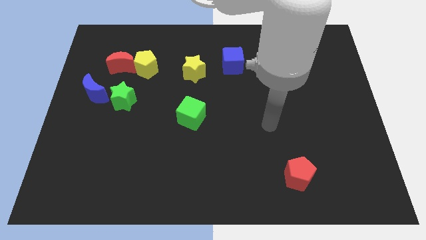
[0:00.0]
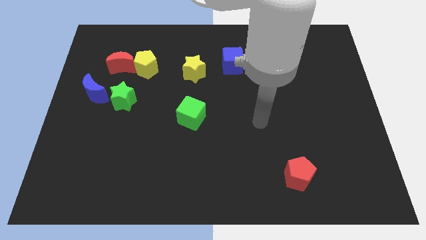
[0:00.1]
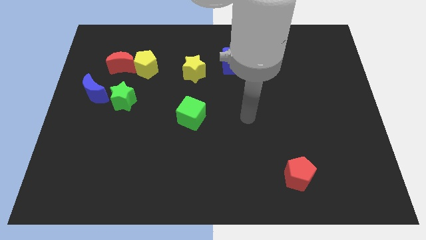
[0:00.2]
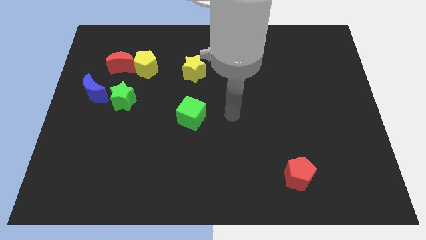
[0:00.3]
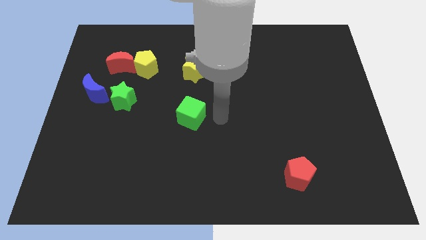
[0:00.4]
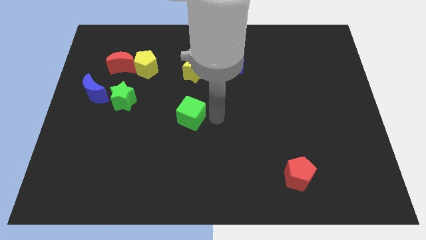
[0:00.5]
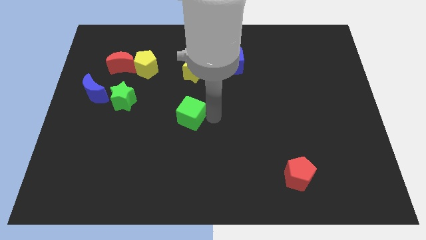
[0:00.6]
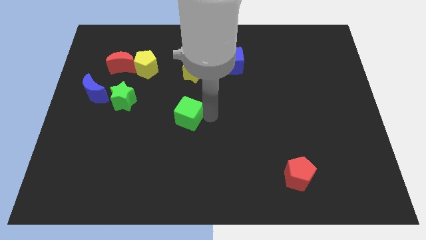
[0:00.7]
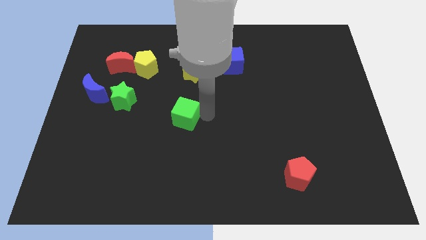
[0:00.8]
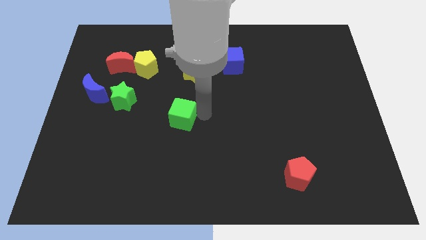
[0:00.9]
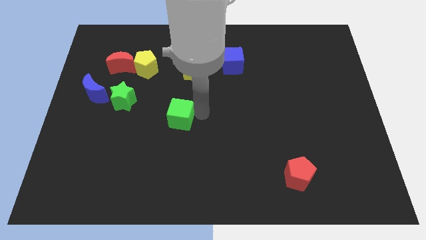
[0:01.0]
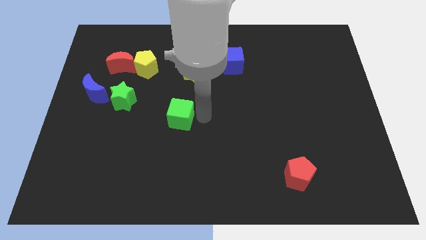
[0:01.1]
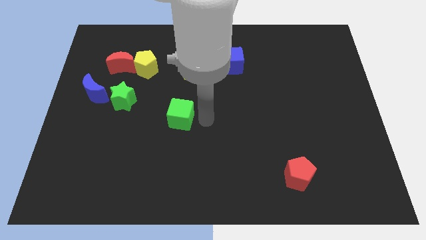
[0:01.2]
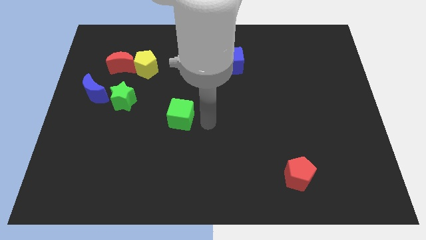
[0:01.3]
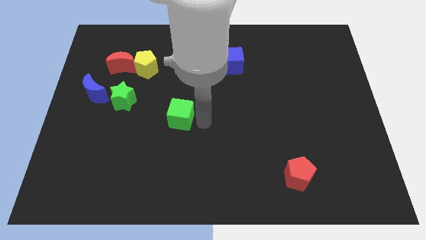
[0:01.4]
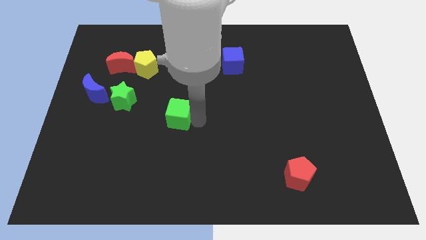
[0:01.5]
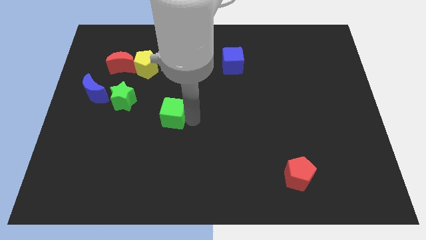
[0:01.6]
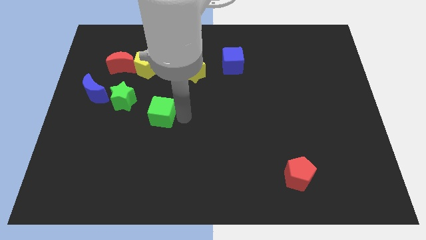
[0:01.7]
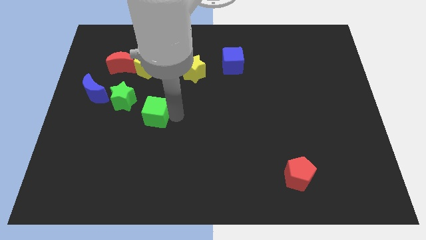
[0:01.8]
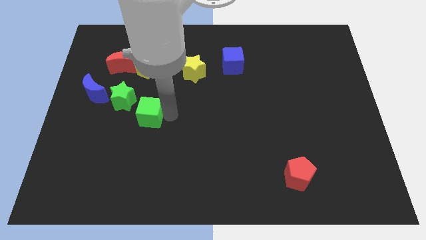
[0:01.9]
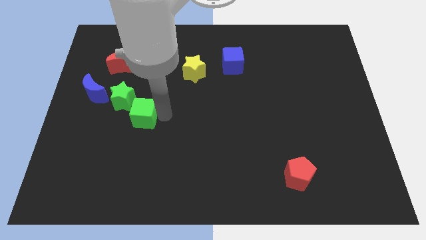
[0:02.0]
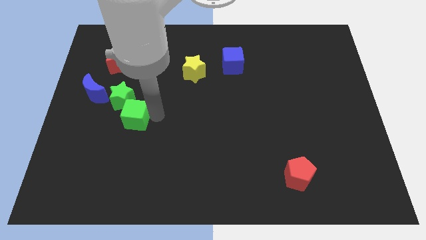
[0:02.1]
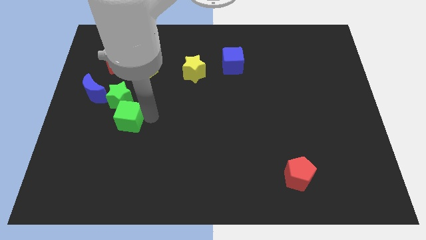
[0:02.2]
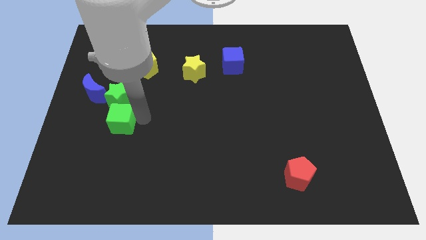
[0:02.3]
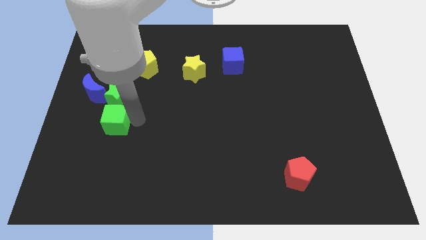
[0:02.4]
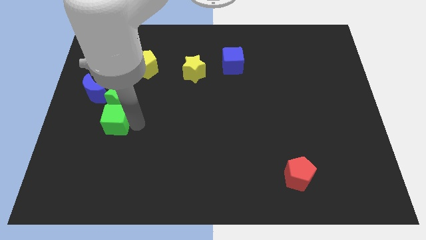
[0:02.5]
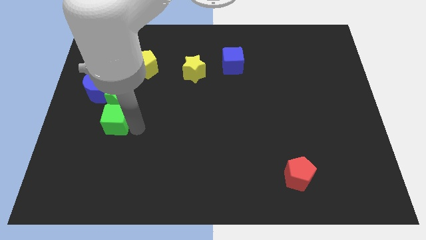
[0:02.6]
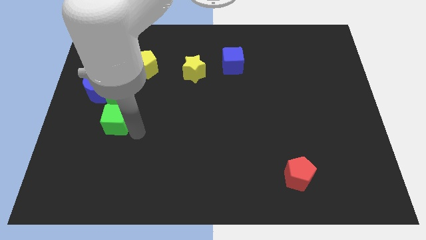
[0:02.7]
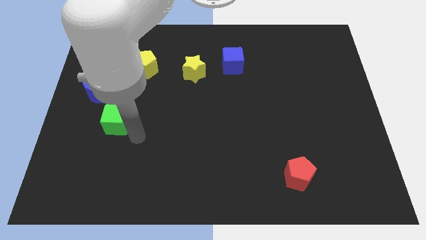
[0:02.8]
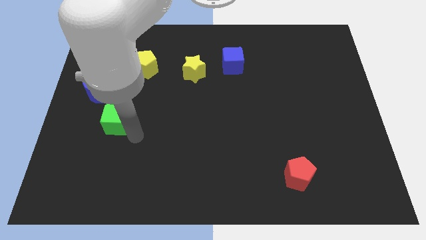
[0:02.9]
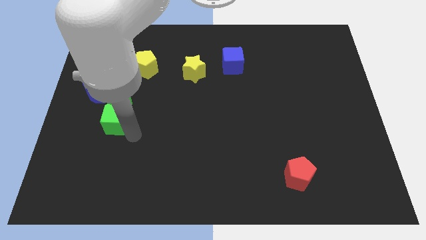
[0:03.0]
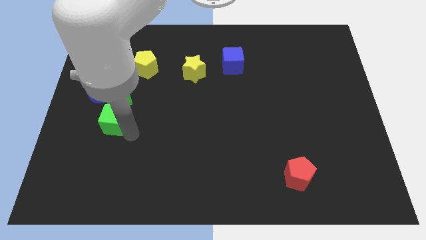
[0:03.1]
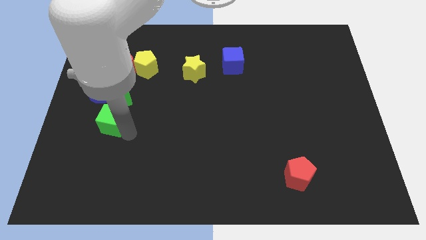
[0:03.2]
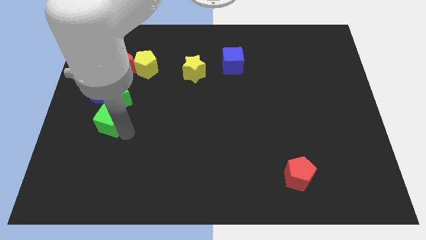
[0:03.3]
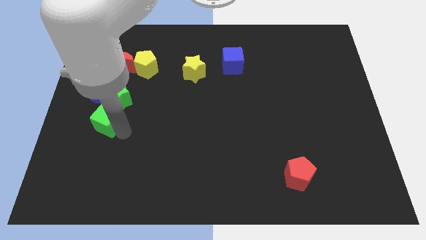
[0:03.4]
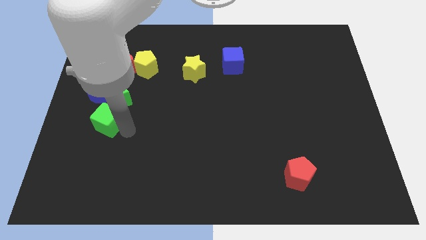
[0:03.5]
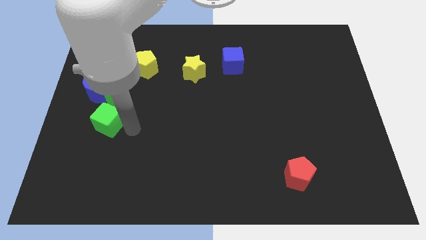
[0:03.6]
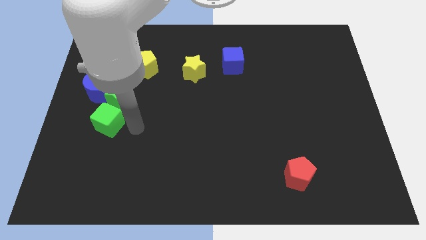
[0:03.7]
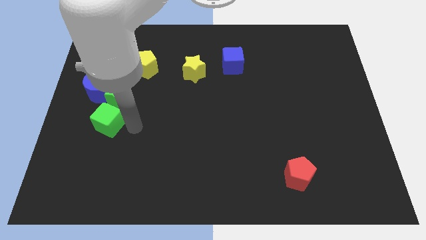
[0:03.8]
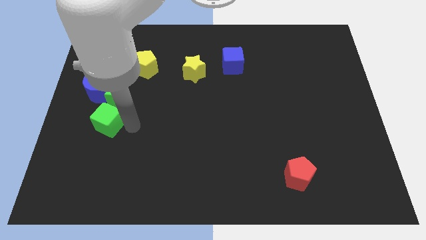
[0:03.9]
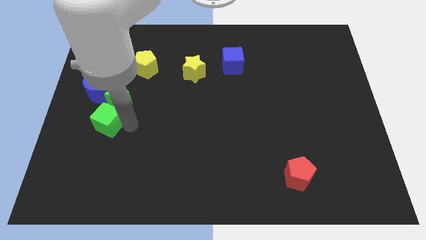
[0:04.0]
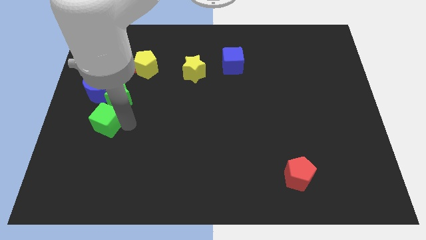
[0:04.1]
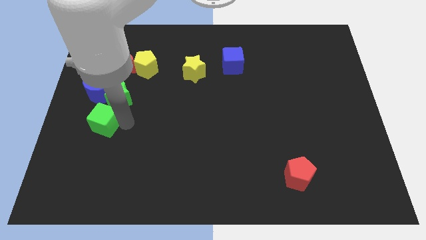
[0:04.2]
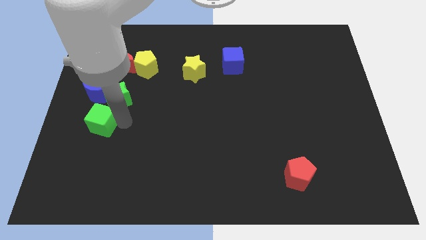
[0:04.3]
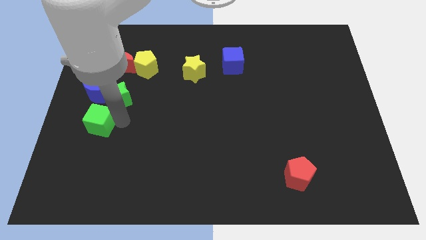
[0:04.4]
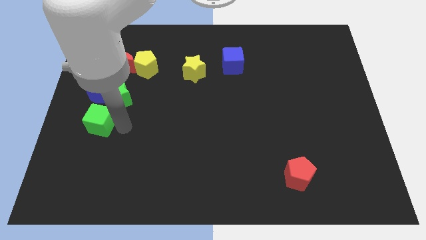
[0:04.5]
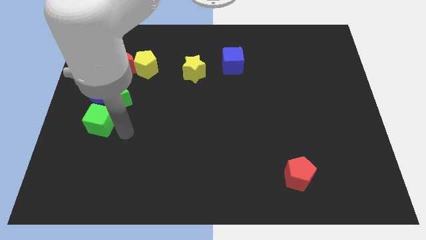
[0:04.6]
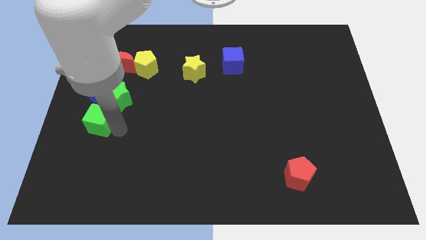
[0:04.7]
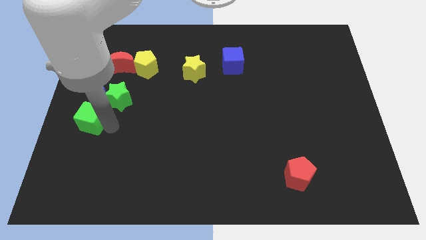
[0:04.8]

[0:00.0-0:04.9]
move the green cube to the left side

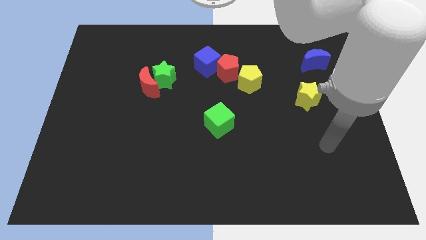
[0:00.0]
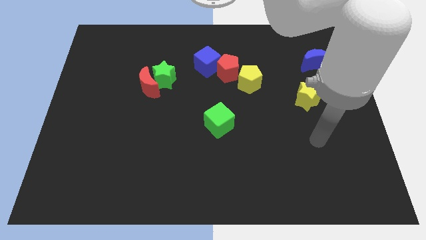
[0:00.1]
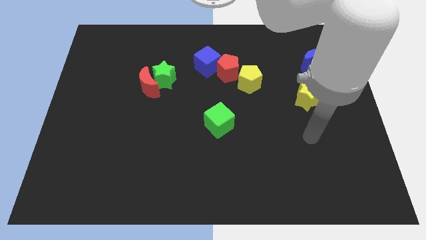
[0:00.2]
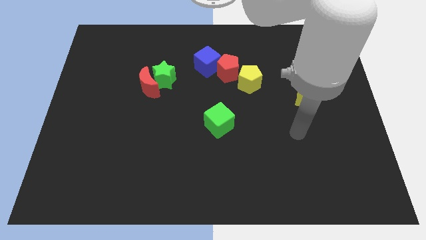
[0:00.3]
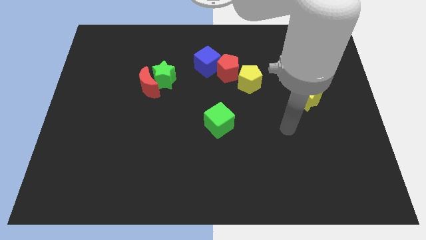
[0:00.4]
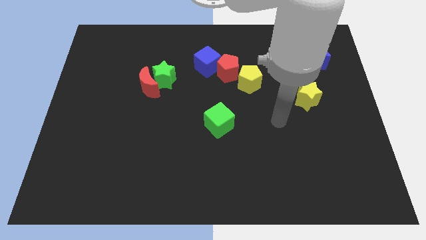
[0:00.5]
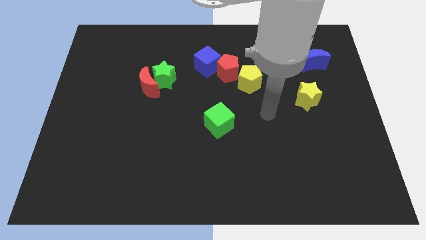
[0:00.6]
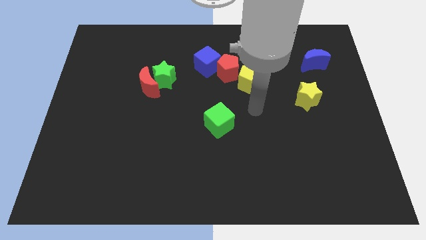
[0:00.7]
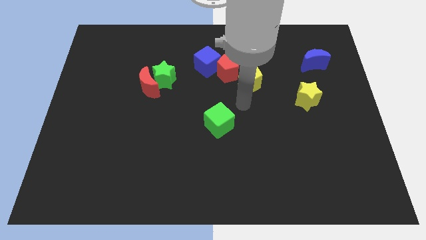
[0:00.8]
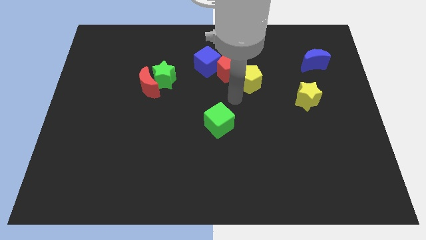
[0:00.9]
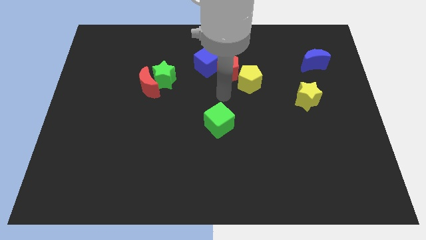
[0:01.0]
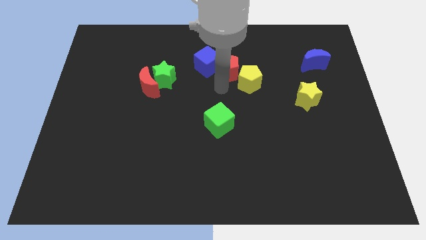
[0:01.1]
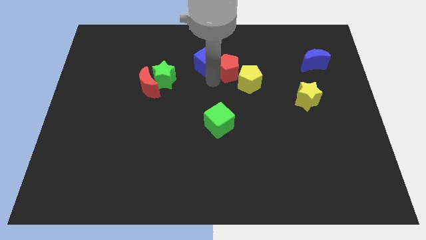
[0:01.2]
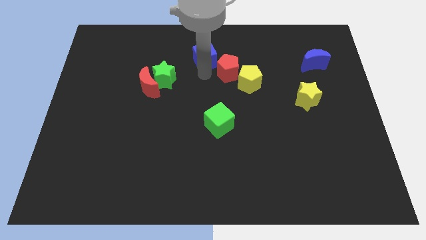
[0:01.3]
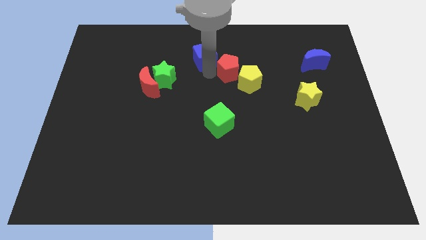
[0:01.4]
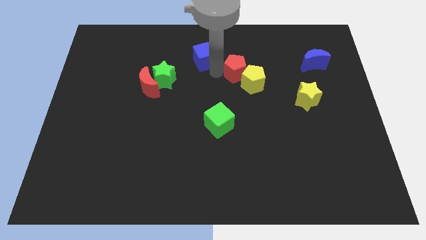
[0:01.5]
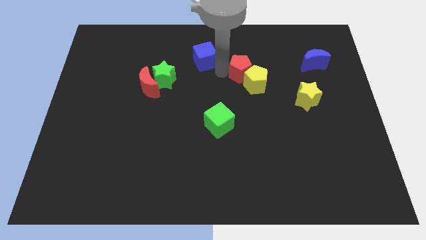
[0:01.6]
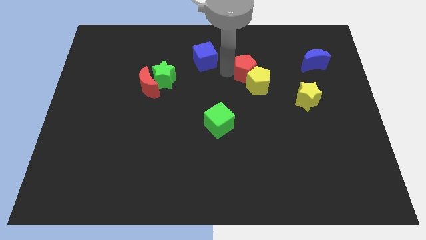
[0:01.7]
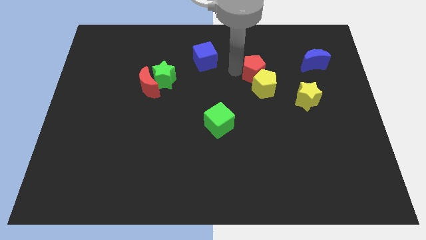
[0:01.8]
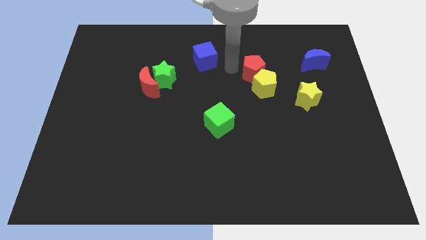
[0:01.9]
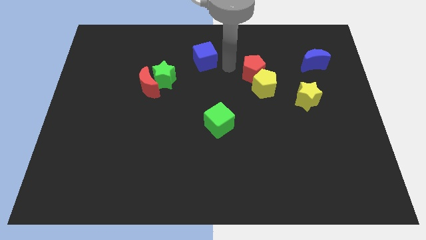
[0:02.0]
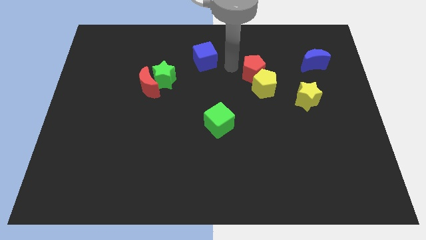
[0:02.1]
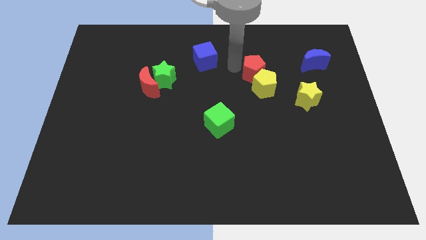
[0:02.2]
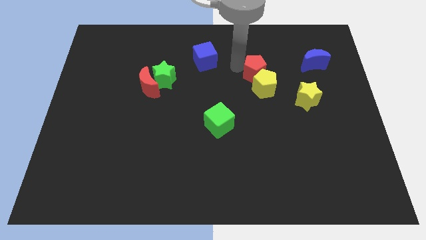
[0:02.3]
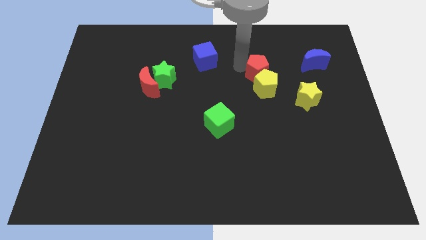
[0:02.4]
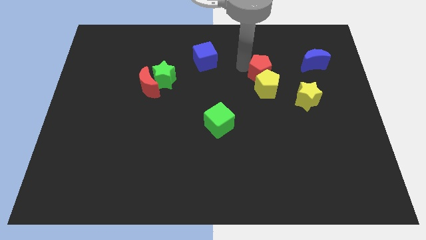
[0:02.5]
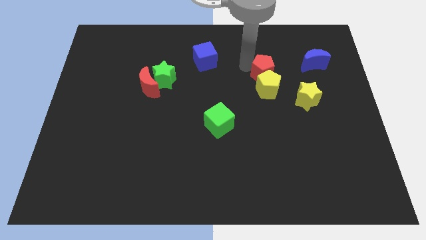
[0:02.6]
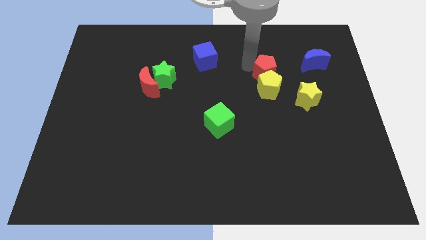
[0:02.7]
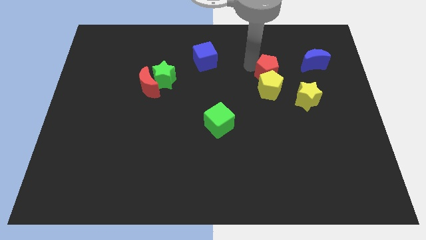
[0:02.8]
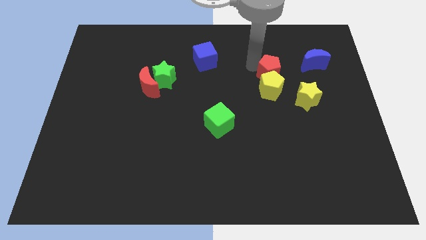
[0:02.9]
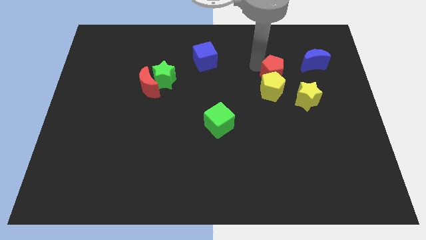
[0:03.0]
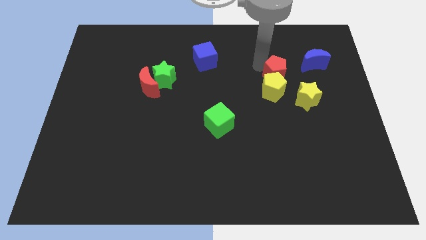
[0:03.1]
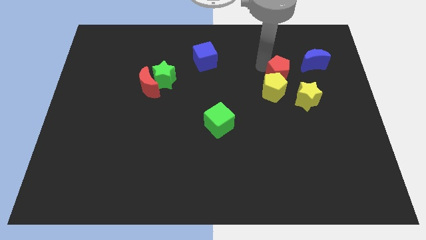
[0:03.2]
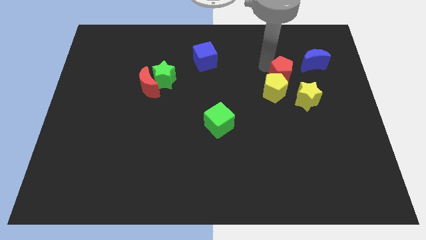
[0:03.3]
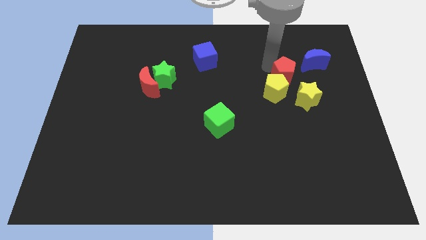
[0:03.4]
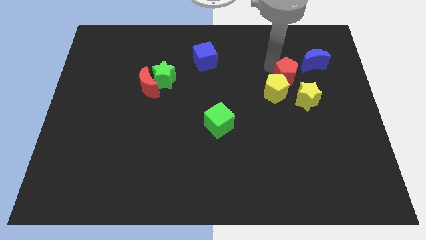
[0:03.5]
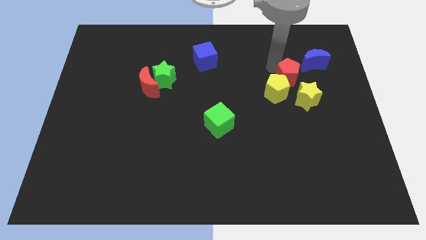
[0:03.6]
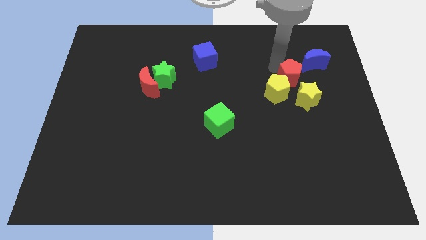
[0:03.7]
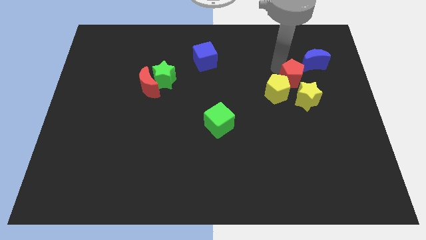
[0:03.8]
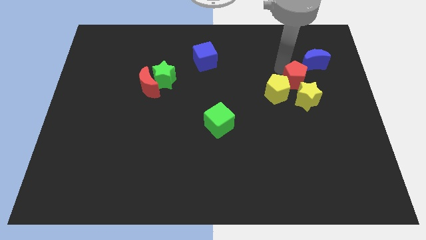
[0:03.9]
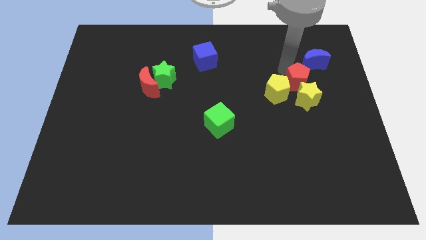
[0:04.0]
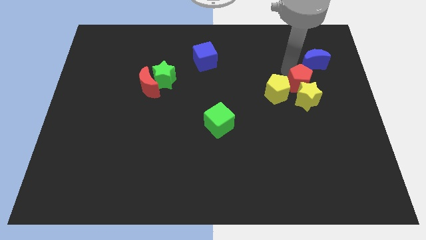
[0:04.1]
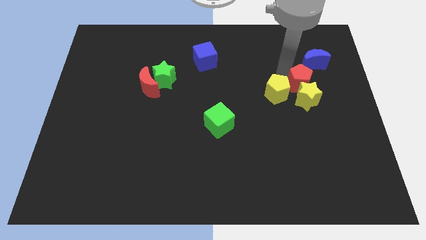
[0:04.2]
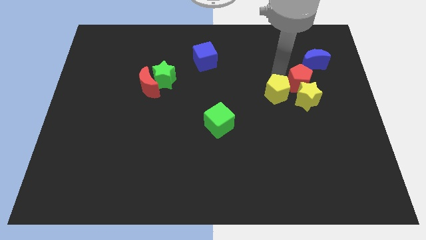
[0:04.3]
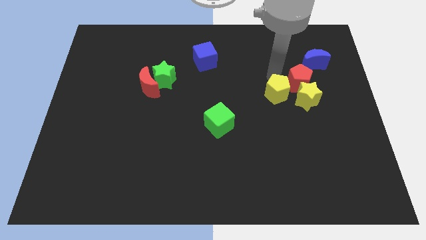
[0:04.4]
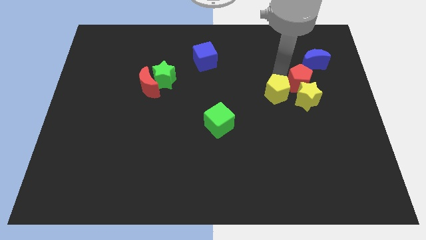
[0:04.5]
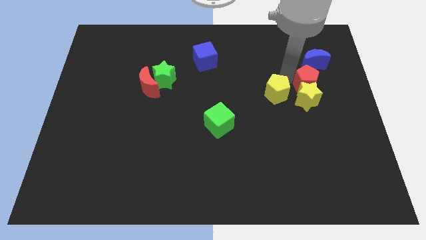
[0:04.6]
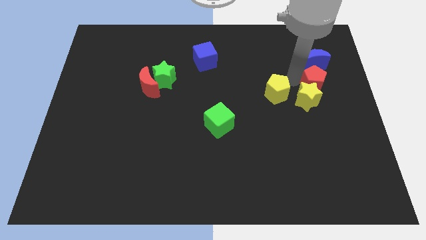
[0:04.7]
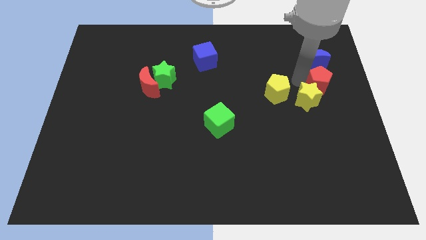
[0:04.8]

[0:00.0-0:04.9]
move the red pentagon to the right side of the board
